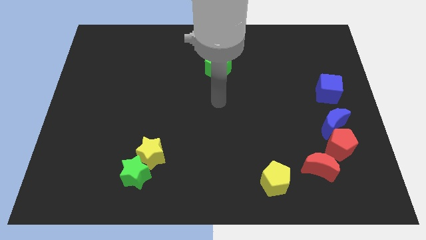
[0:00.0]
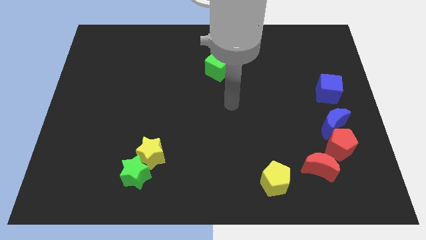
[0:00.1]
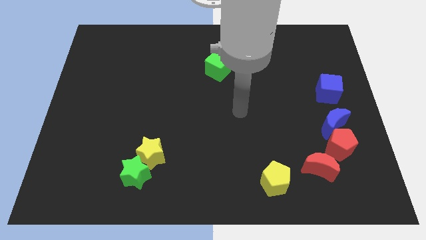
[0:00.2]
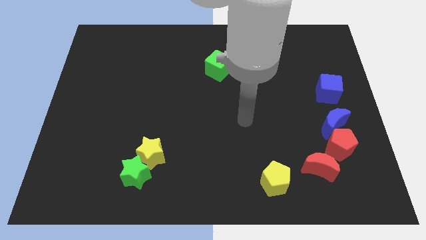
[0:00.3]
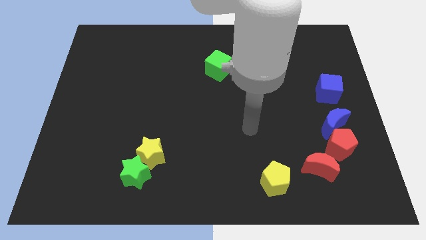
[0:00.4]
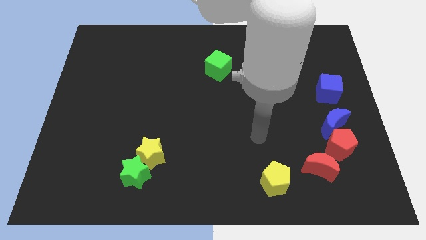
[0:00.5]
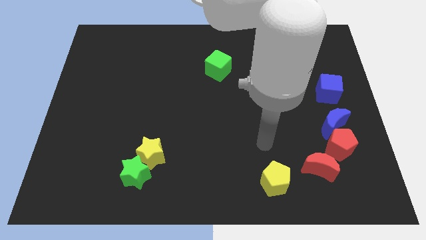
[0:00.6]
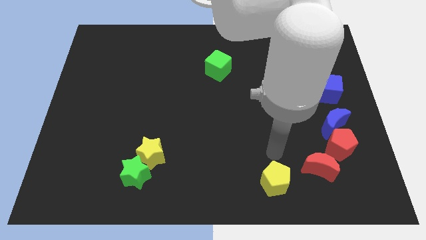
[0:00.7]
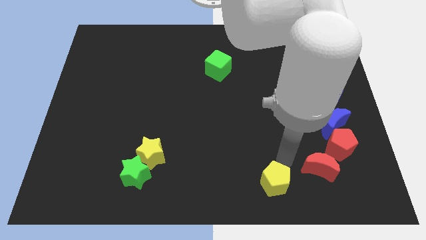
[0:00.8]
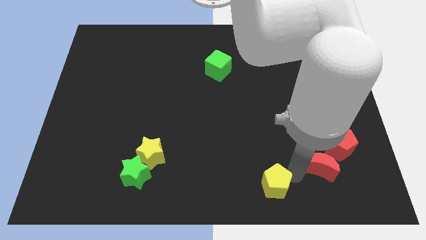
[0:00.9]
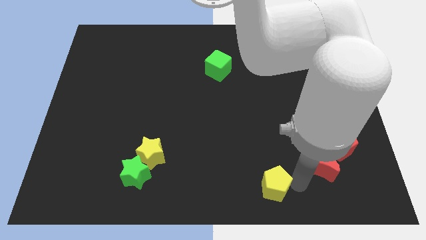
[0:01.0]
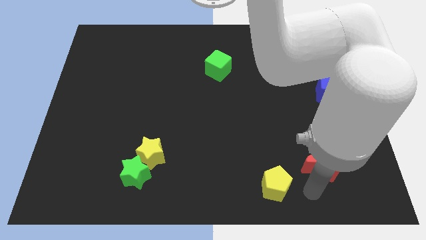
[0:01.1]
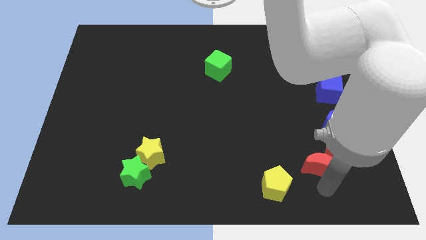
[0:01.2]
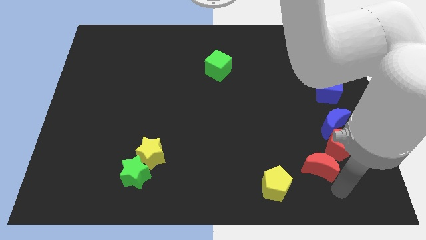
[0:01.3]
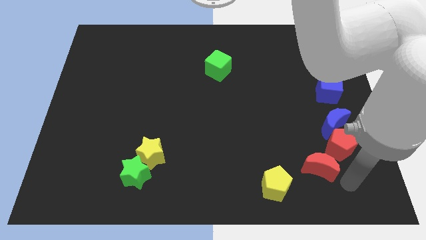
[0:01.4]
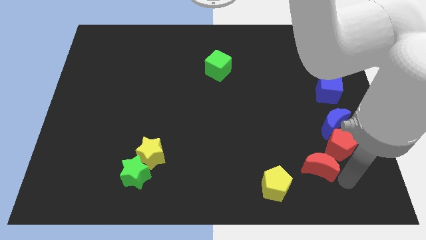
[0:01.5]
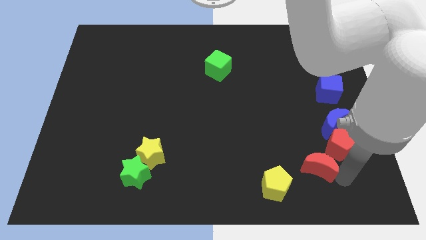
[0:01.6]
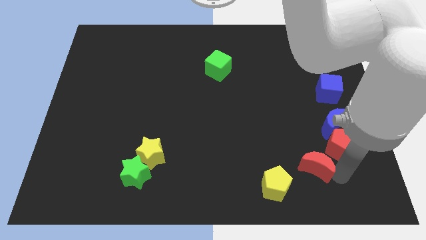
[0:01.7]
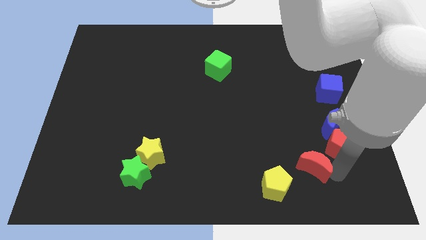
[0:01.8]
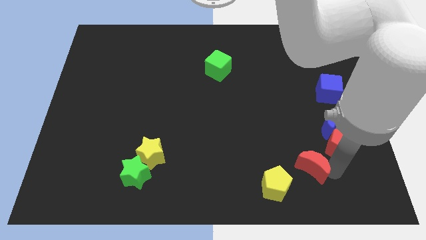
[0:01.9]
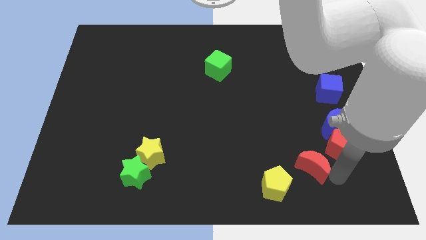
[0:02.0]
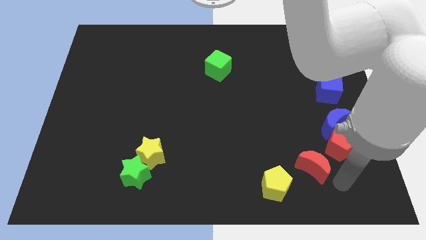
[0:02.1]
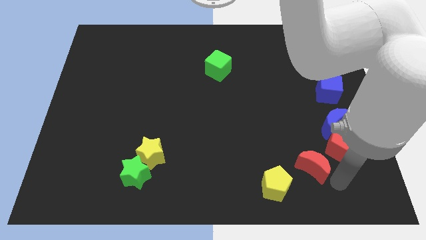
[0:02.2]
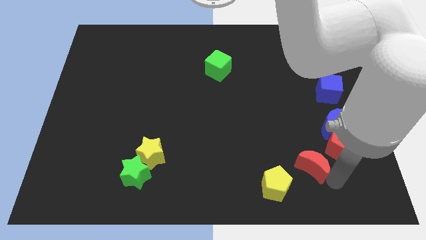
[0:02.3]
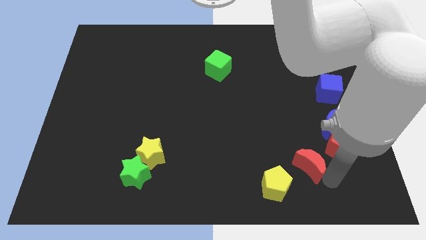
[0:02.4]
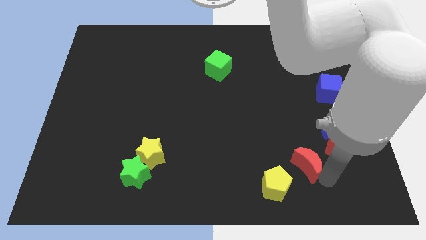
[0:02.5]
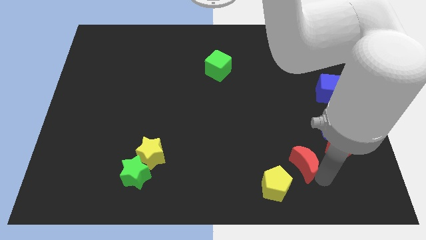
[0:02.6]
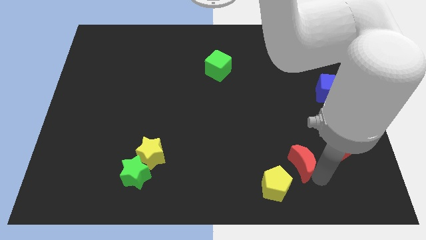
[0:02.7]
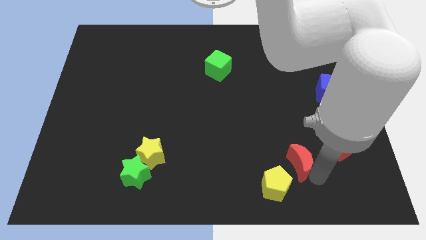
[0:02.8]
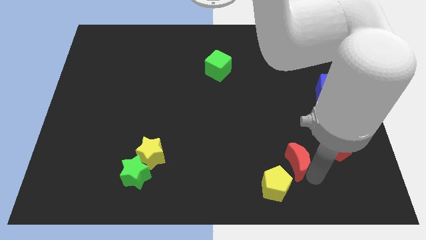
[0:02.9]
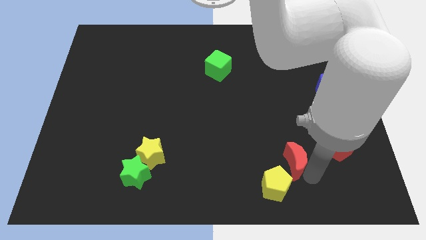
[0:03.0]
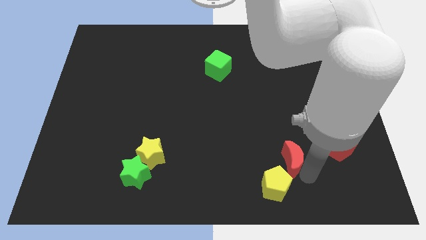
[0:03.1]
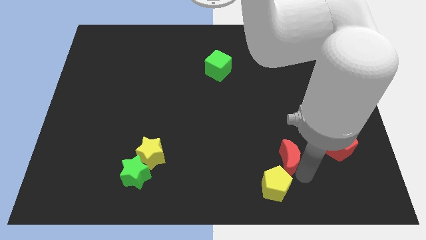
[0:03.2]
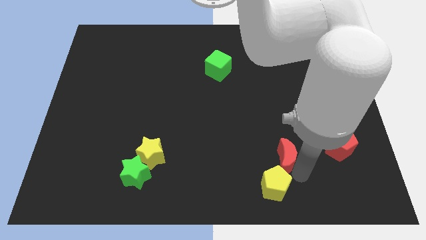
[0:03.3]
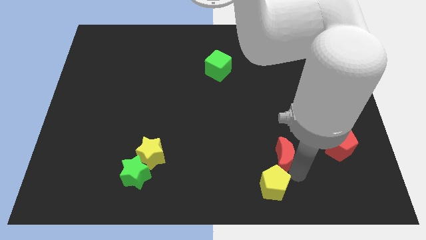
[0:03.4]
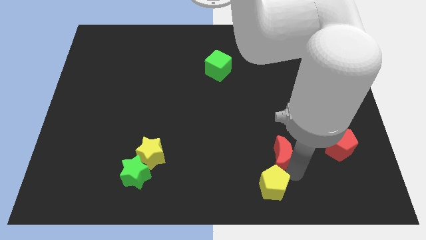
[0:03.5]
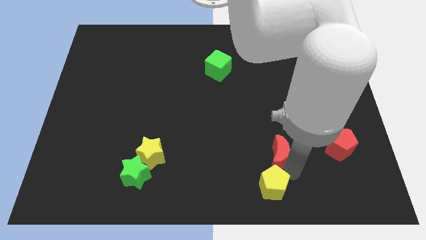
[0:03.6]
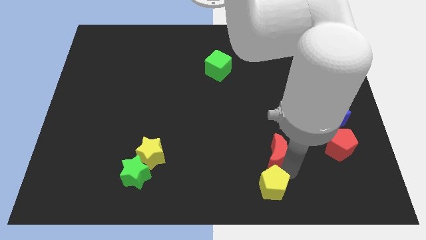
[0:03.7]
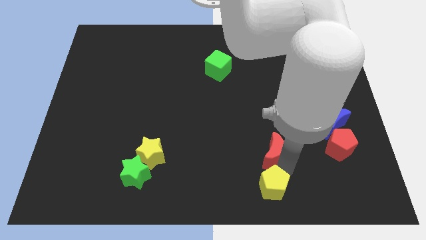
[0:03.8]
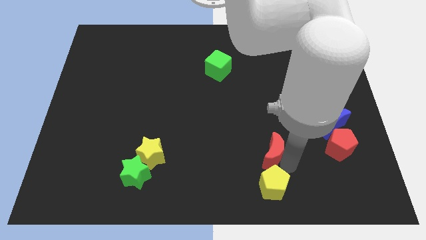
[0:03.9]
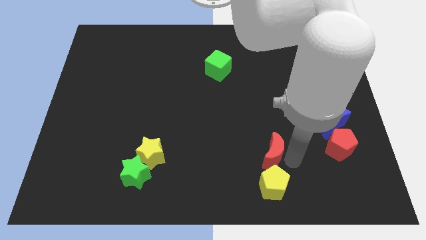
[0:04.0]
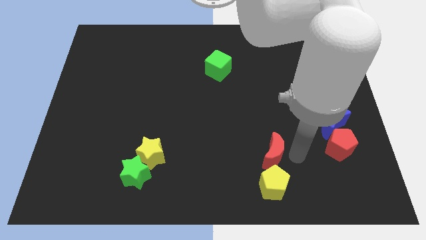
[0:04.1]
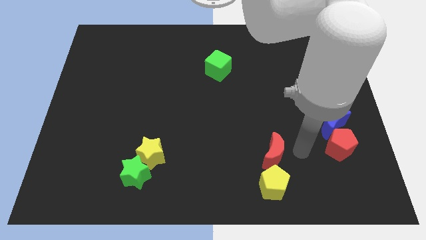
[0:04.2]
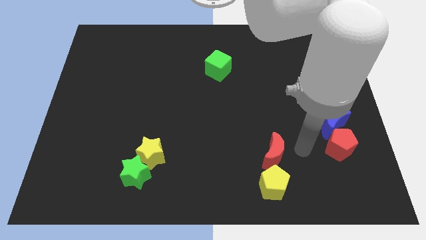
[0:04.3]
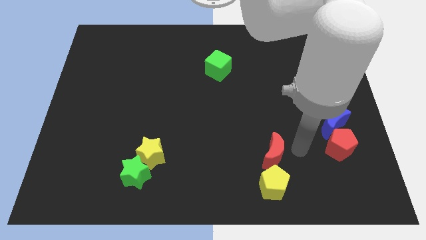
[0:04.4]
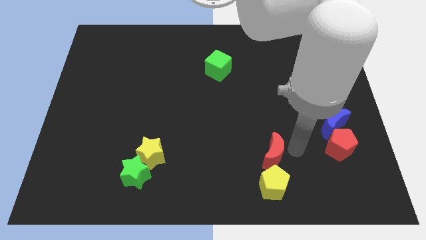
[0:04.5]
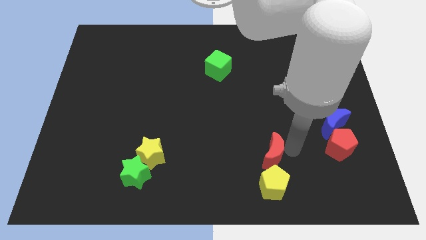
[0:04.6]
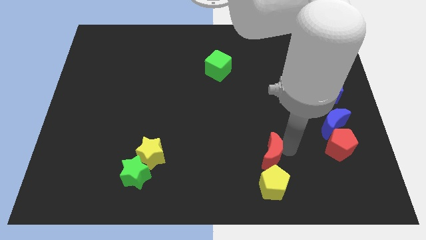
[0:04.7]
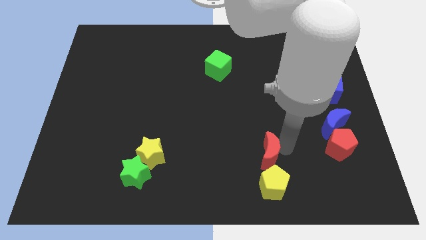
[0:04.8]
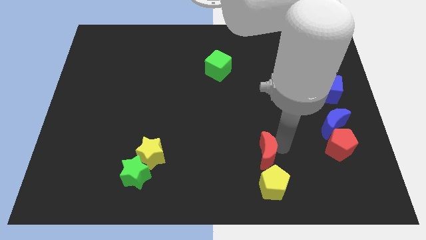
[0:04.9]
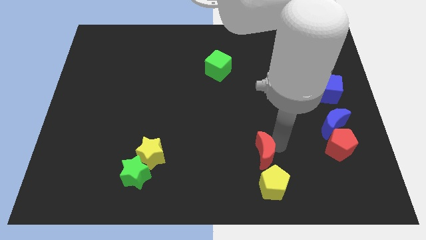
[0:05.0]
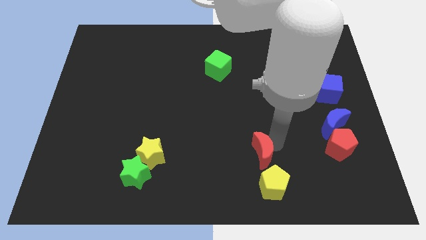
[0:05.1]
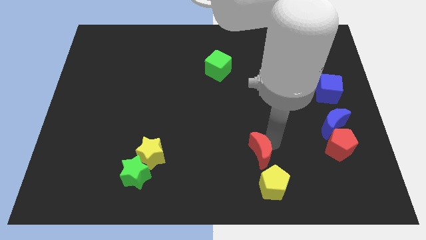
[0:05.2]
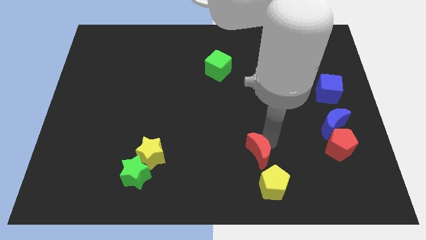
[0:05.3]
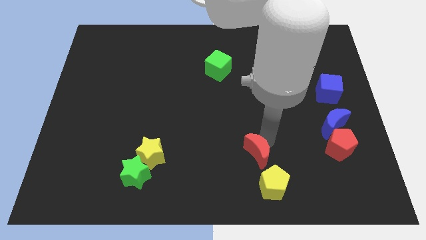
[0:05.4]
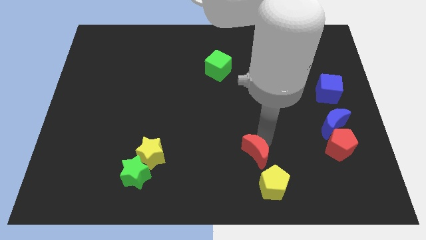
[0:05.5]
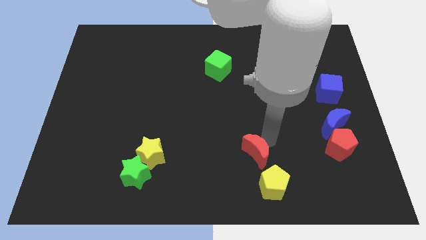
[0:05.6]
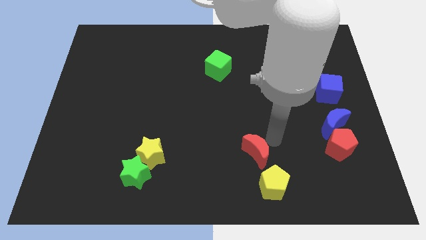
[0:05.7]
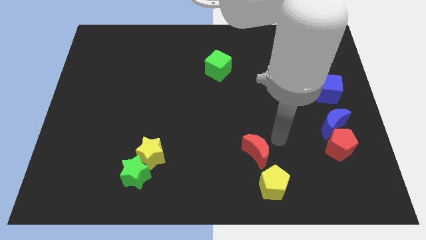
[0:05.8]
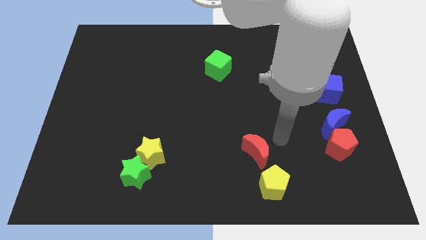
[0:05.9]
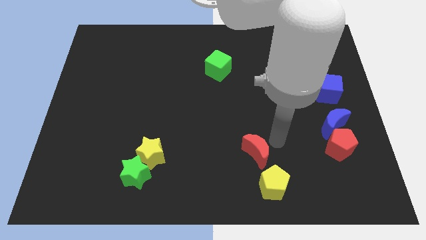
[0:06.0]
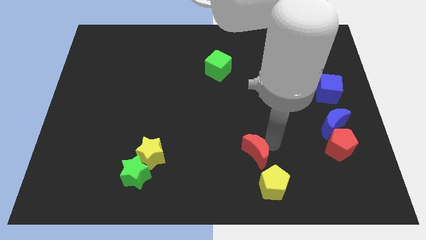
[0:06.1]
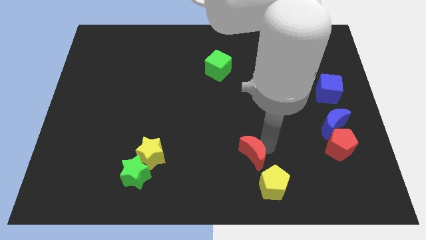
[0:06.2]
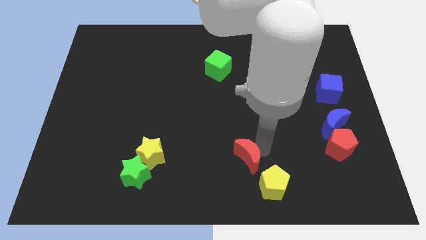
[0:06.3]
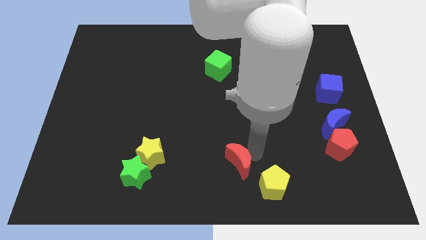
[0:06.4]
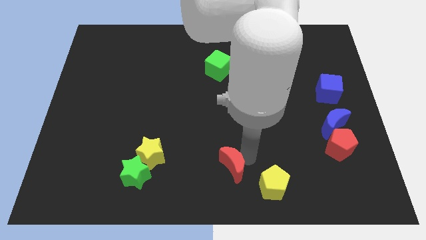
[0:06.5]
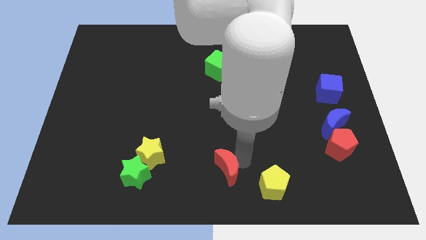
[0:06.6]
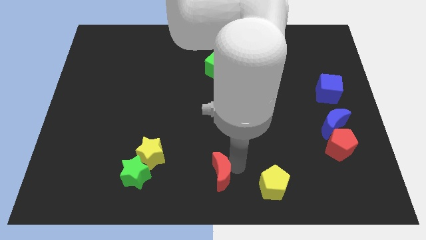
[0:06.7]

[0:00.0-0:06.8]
move the red moon left

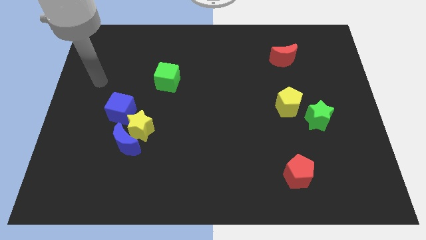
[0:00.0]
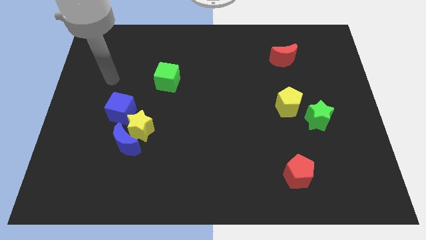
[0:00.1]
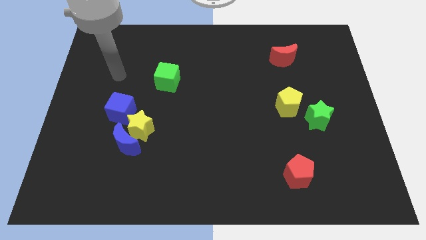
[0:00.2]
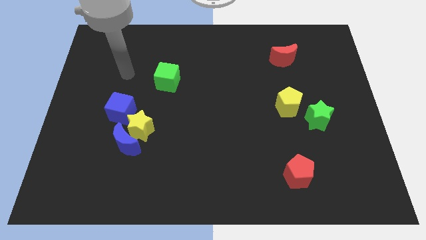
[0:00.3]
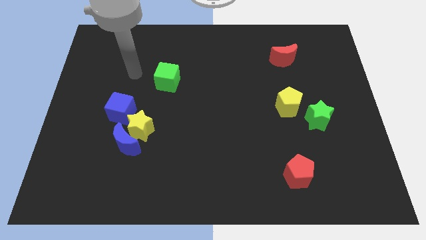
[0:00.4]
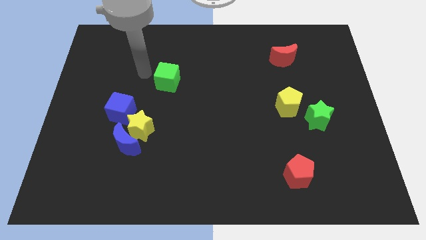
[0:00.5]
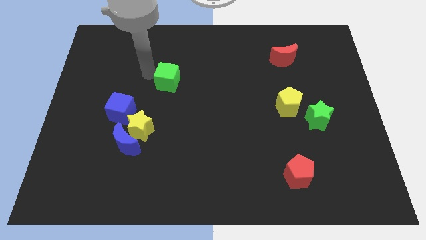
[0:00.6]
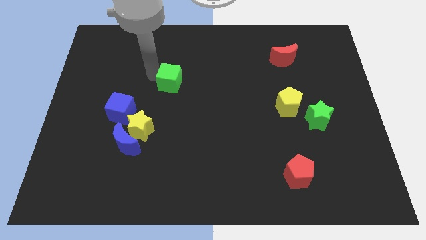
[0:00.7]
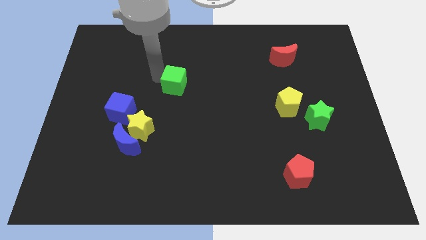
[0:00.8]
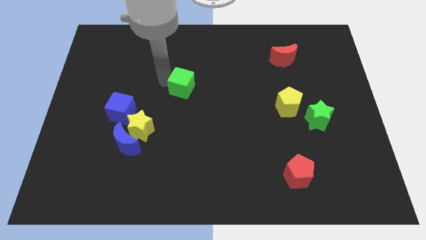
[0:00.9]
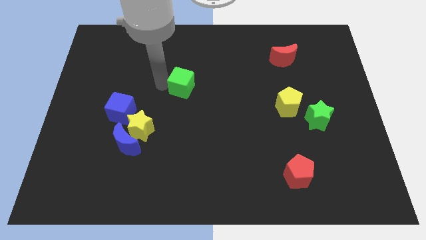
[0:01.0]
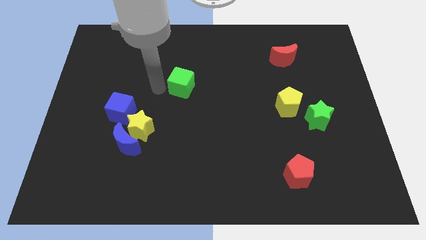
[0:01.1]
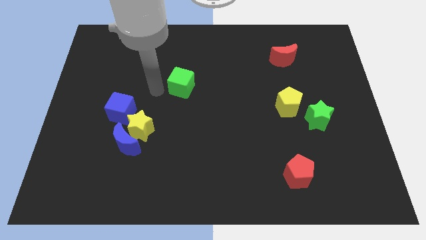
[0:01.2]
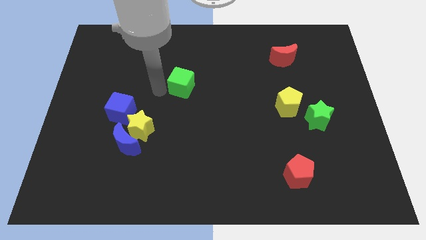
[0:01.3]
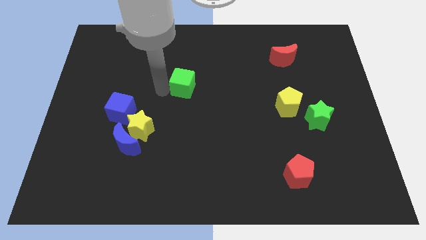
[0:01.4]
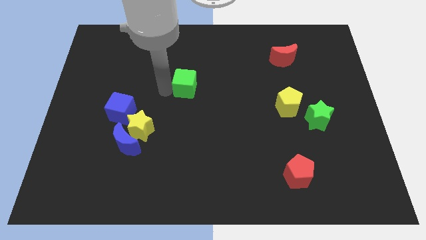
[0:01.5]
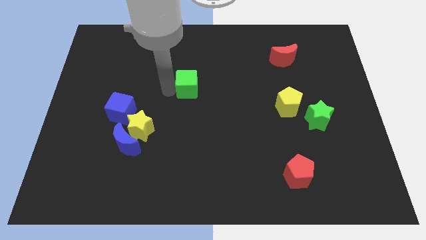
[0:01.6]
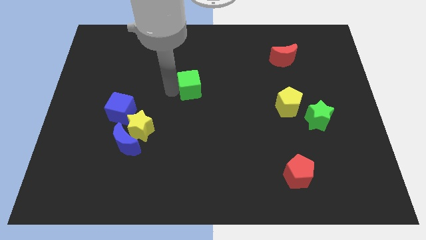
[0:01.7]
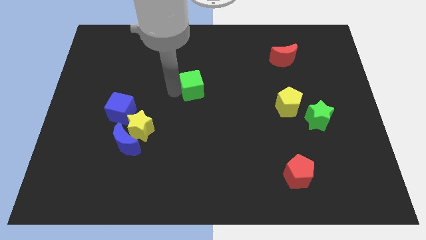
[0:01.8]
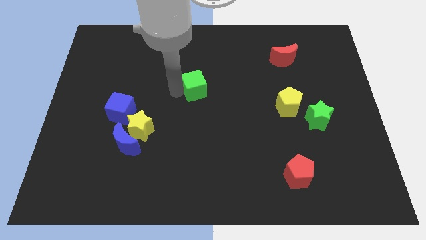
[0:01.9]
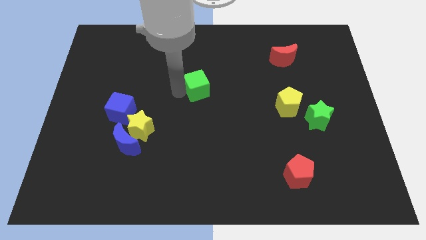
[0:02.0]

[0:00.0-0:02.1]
push the green cube to the right somewhat
